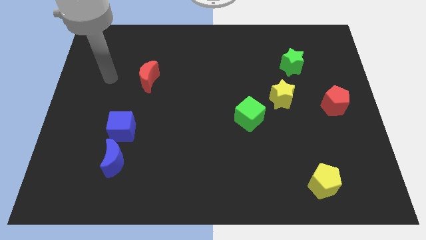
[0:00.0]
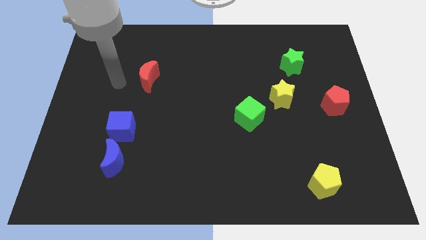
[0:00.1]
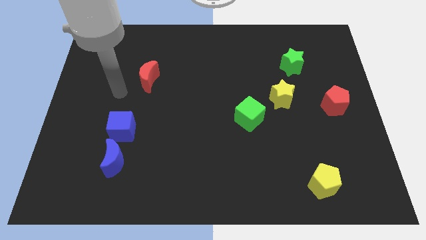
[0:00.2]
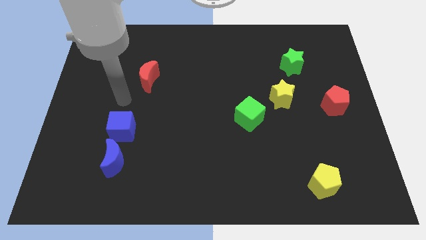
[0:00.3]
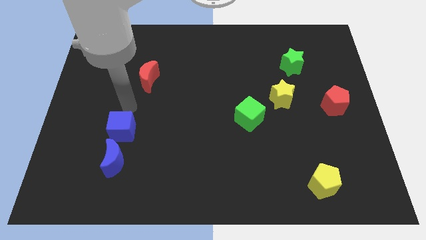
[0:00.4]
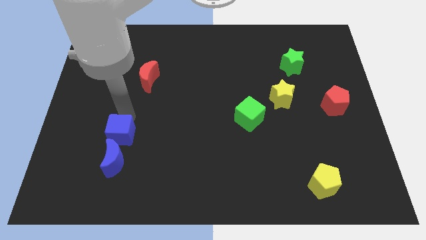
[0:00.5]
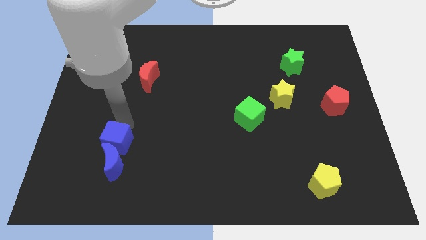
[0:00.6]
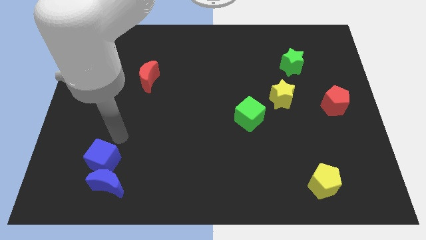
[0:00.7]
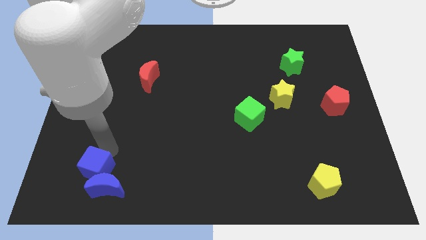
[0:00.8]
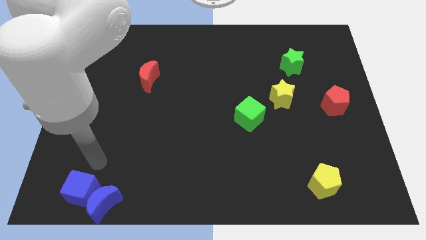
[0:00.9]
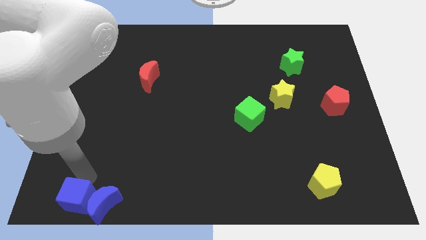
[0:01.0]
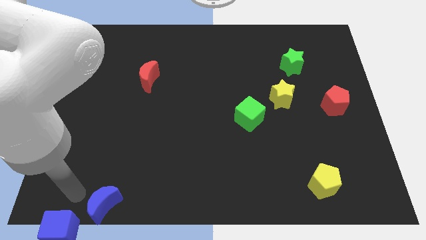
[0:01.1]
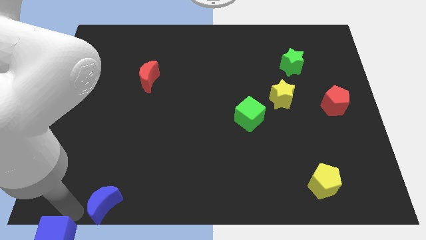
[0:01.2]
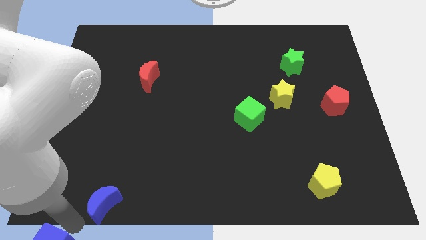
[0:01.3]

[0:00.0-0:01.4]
pull the blue moon apart from the blue cube

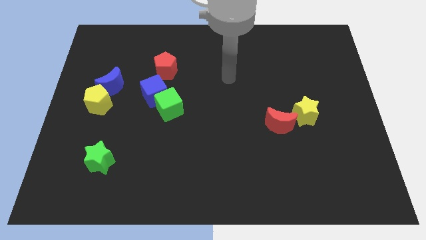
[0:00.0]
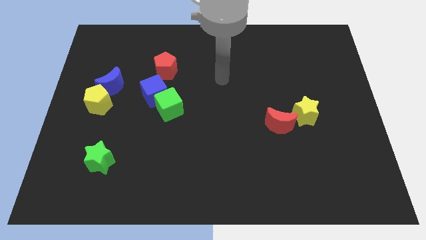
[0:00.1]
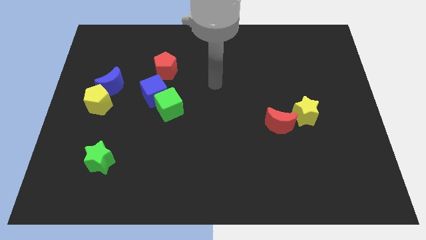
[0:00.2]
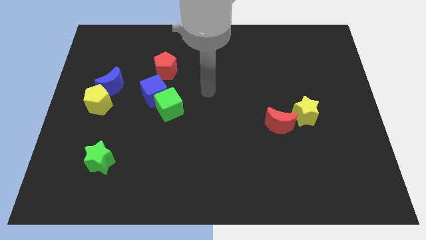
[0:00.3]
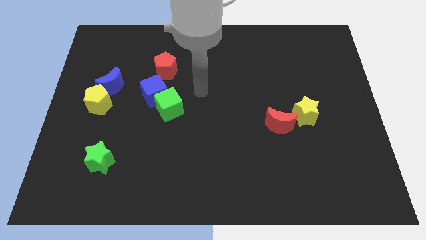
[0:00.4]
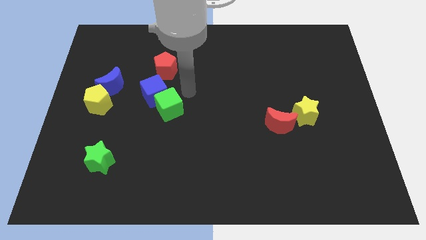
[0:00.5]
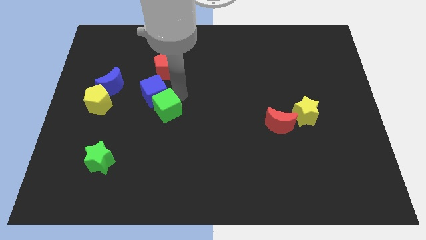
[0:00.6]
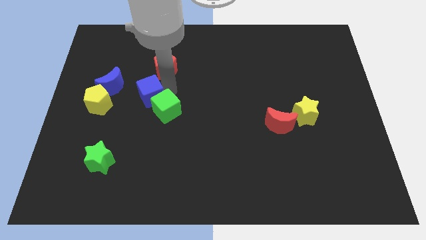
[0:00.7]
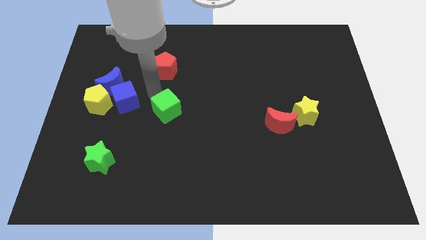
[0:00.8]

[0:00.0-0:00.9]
separate the green cube from the blue cube

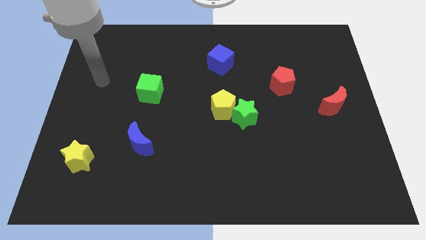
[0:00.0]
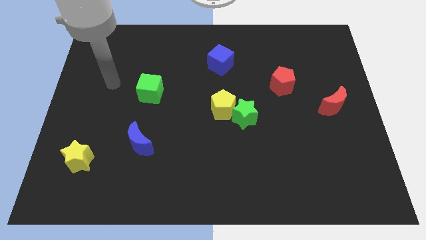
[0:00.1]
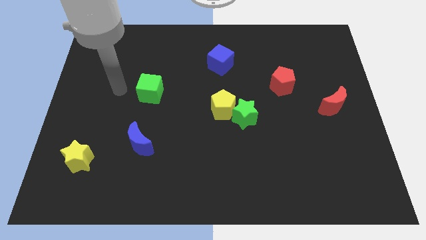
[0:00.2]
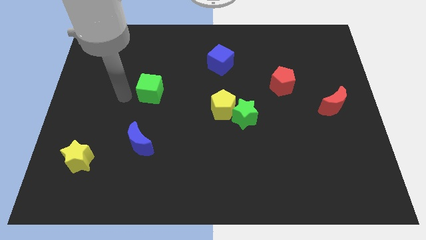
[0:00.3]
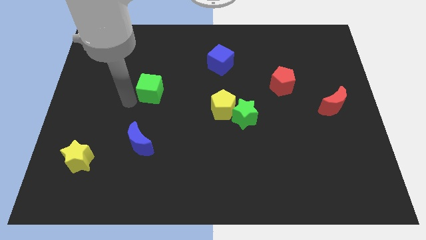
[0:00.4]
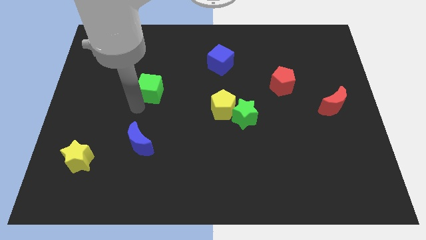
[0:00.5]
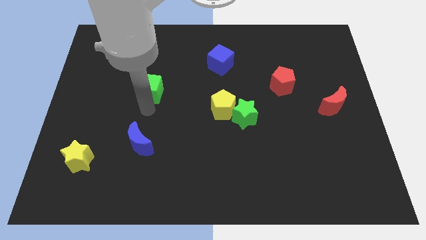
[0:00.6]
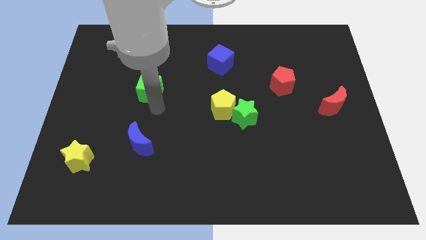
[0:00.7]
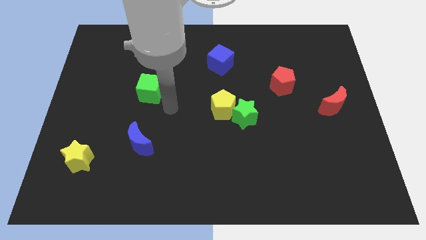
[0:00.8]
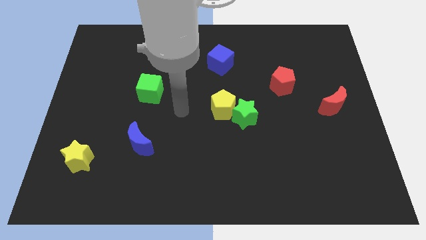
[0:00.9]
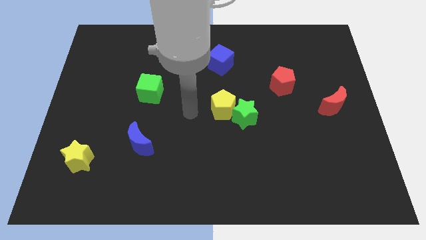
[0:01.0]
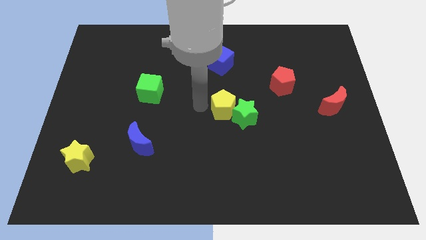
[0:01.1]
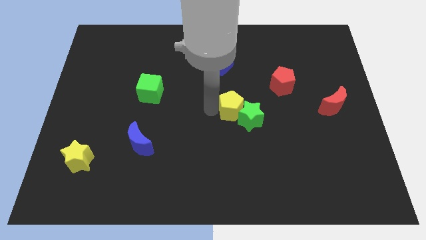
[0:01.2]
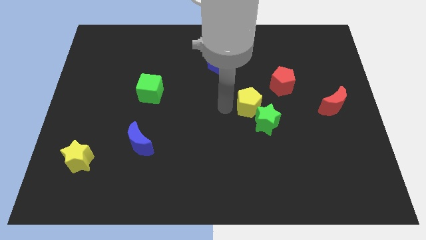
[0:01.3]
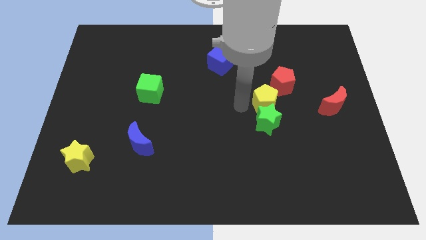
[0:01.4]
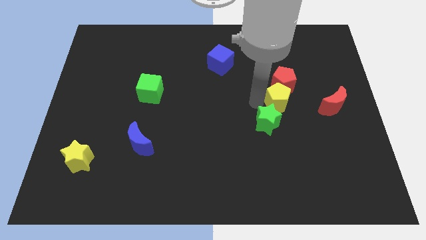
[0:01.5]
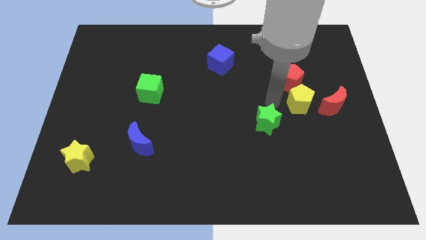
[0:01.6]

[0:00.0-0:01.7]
move the green star away from the yellow pentagon

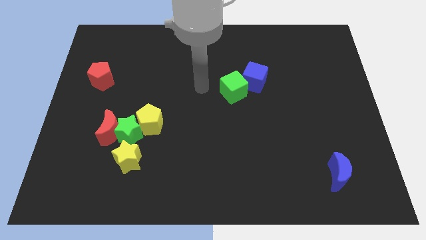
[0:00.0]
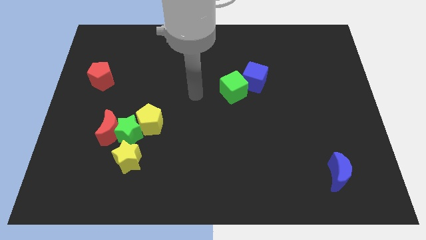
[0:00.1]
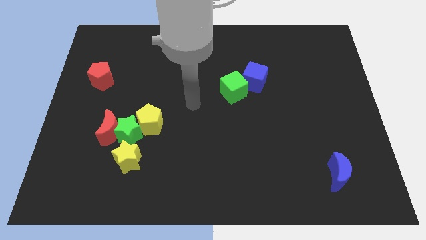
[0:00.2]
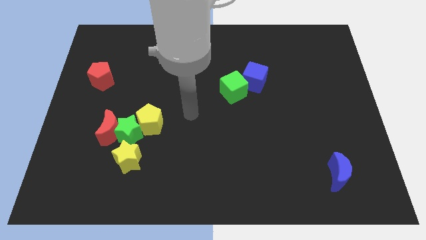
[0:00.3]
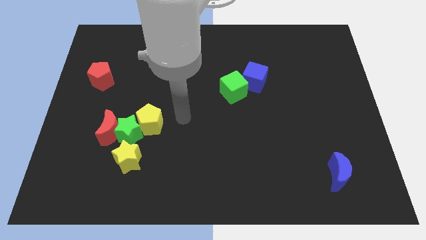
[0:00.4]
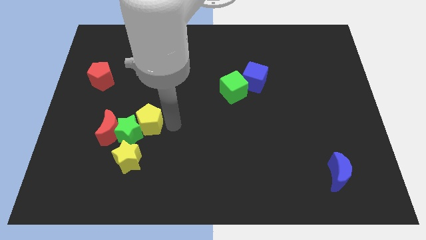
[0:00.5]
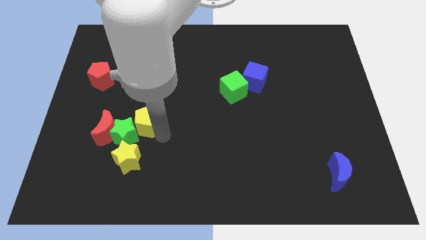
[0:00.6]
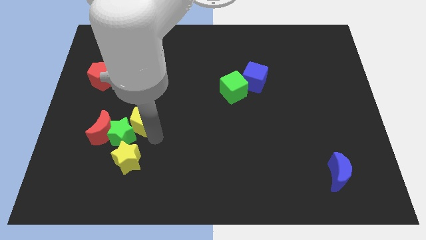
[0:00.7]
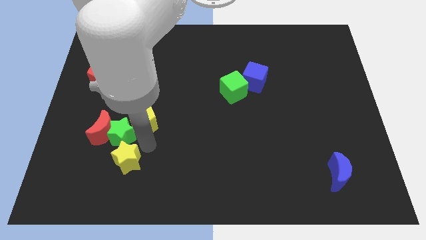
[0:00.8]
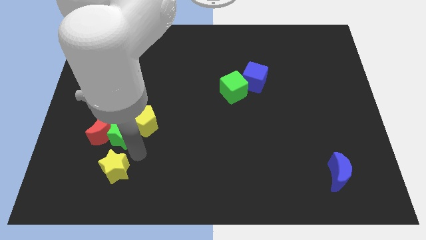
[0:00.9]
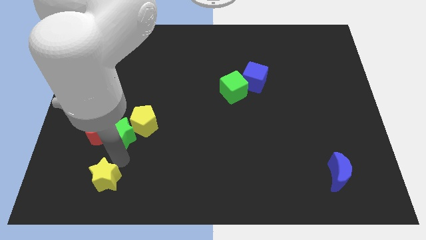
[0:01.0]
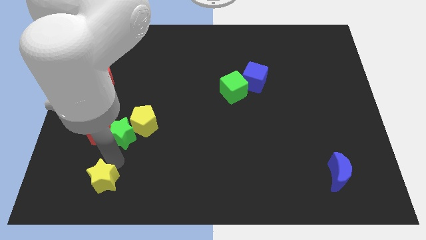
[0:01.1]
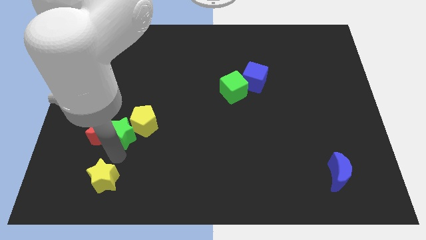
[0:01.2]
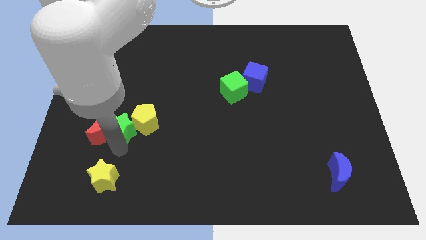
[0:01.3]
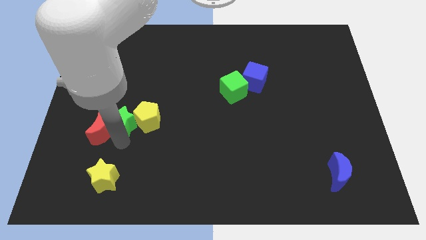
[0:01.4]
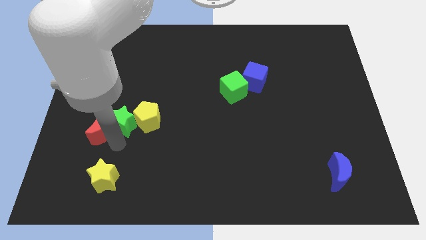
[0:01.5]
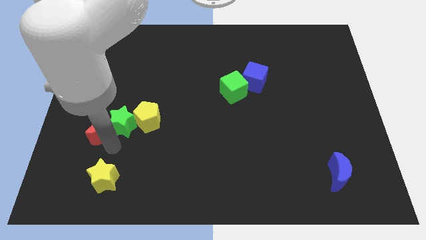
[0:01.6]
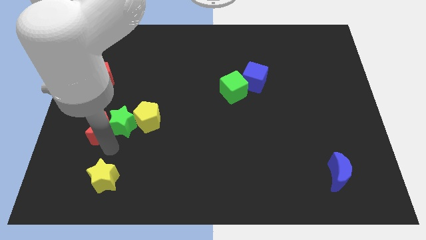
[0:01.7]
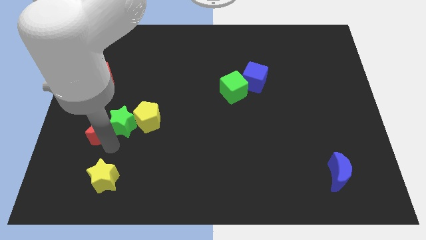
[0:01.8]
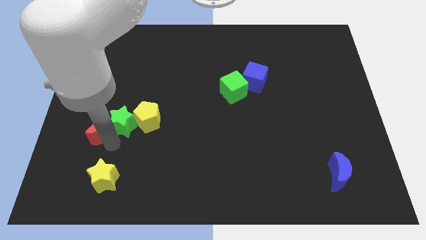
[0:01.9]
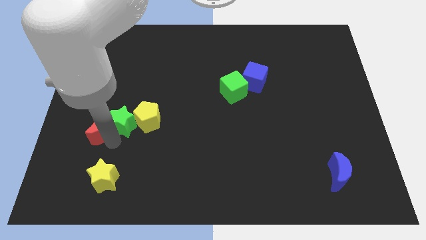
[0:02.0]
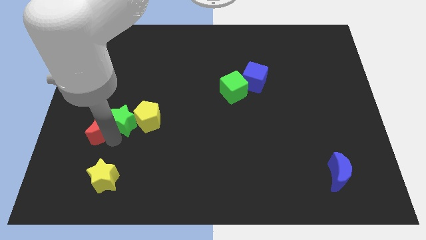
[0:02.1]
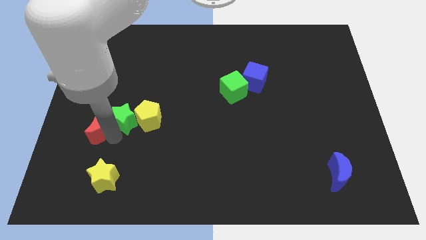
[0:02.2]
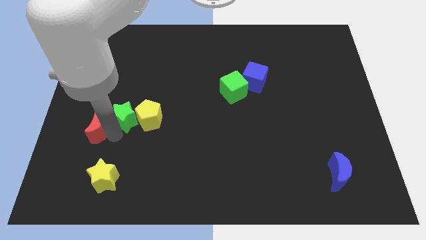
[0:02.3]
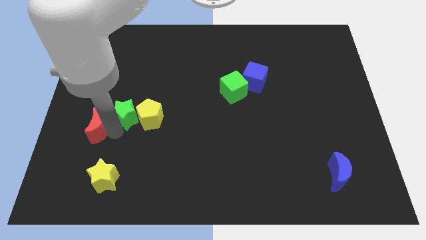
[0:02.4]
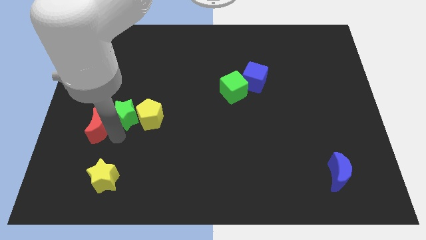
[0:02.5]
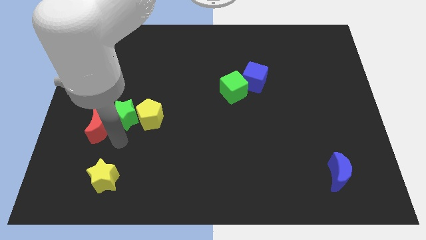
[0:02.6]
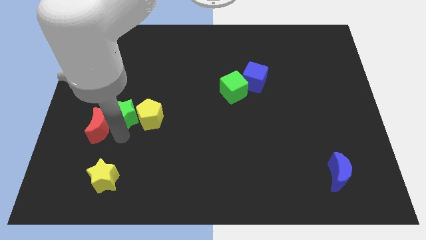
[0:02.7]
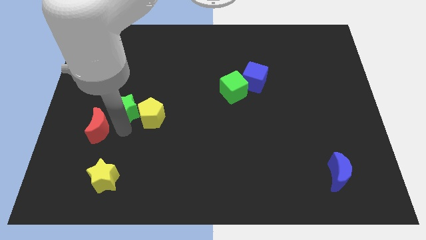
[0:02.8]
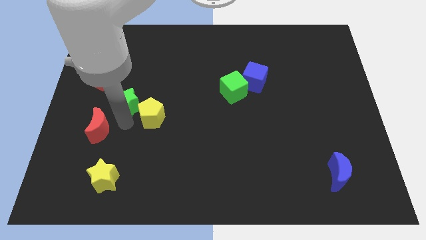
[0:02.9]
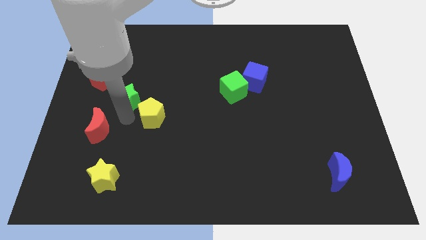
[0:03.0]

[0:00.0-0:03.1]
pull the green star apart from the red moon, yellow pentagon, and yellow star

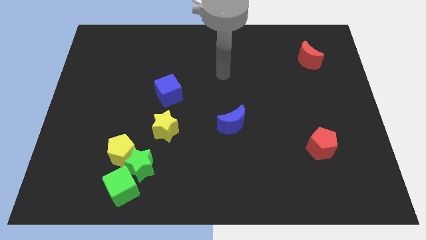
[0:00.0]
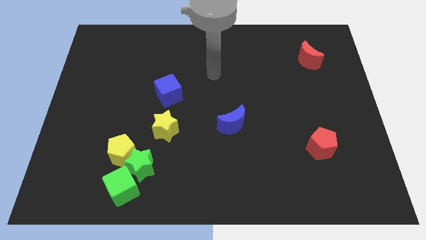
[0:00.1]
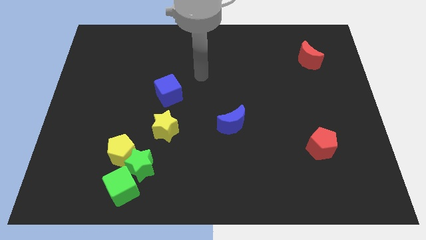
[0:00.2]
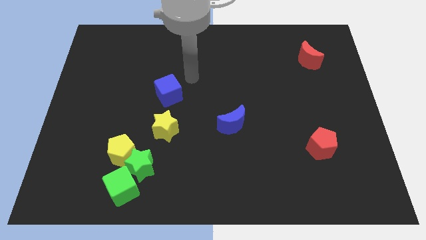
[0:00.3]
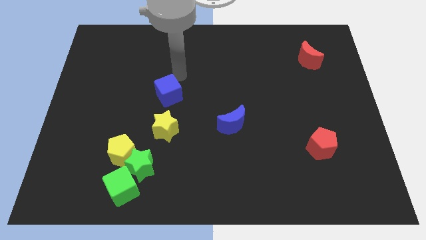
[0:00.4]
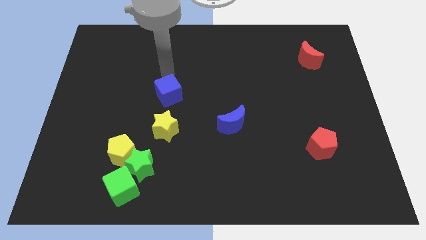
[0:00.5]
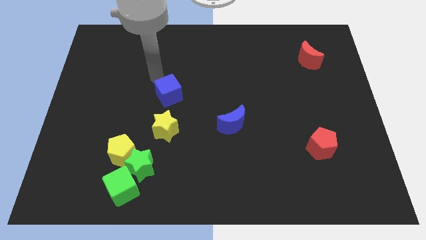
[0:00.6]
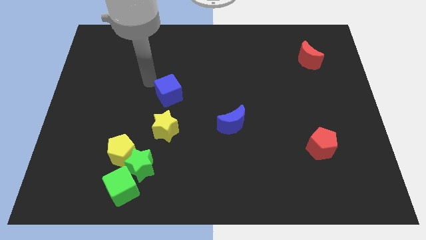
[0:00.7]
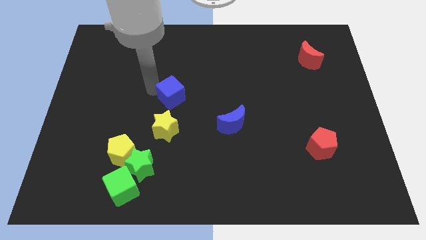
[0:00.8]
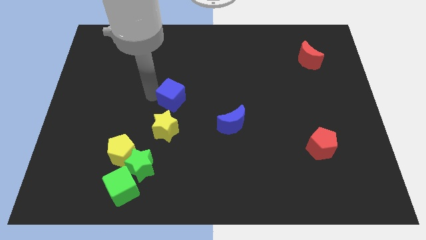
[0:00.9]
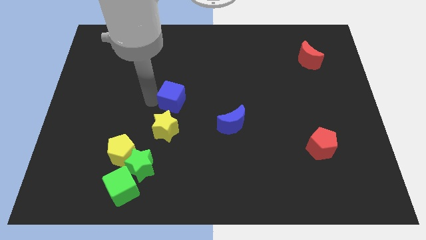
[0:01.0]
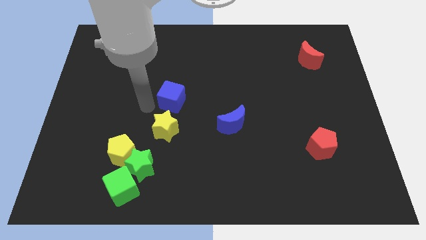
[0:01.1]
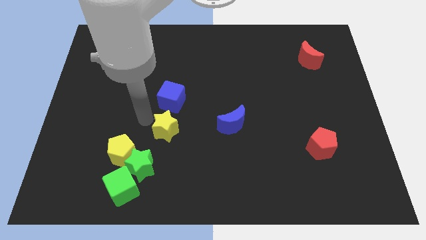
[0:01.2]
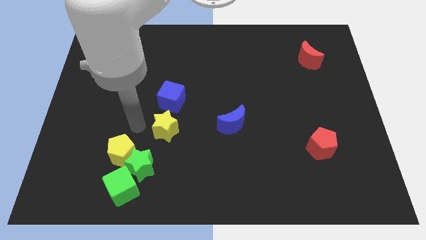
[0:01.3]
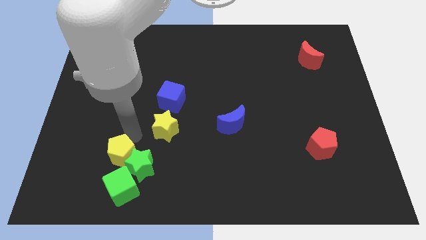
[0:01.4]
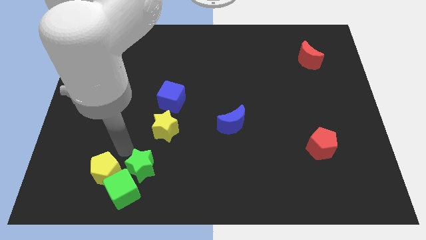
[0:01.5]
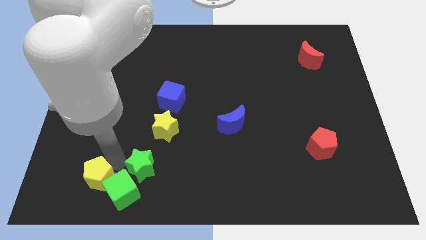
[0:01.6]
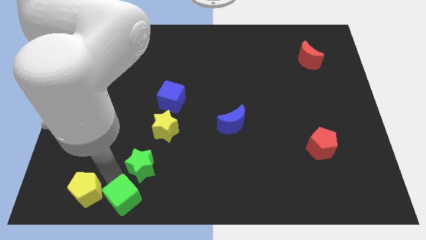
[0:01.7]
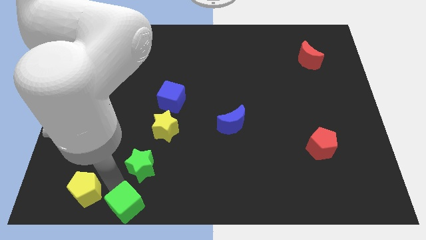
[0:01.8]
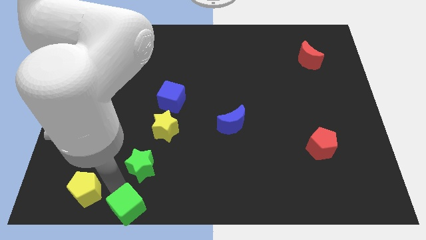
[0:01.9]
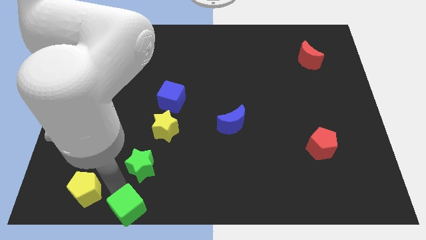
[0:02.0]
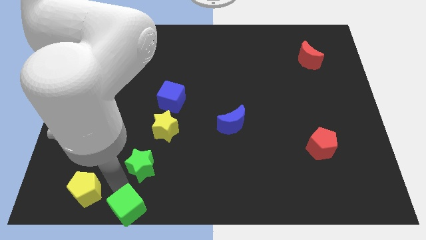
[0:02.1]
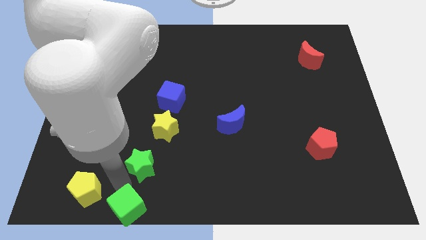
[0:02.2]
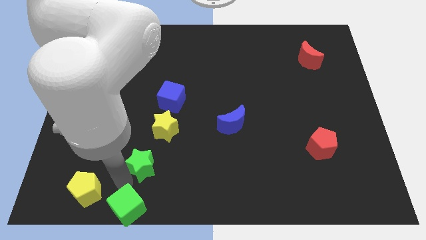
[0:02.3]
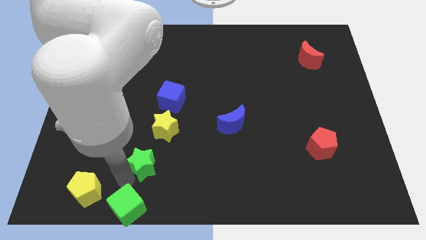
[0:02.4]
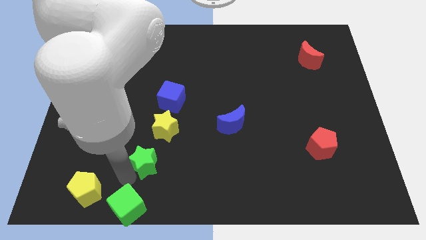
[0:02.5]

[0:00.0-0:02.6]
move the green star away from the yellow pentagon and green cube
